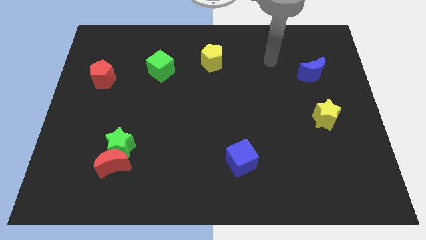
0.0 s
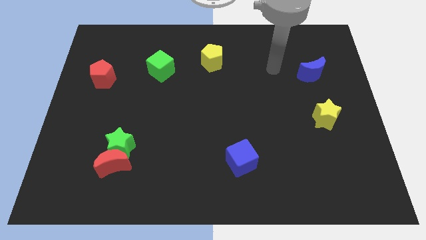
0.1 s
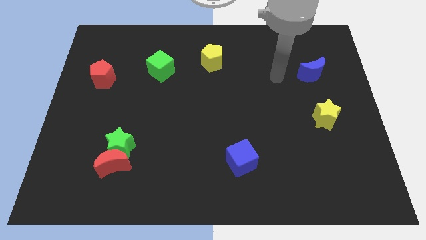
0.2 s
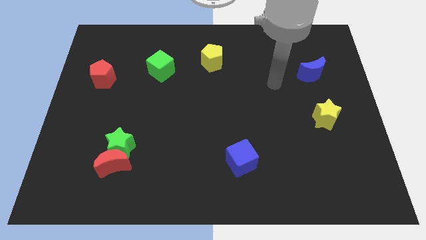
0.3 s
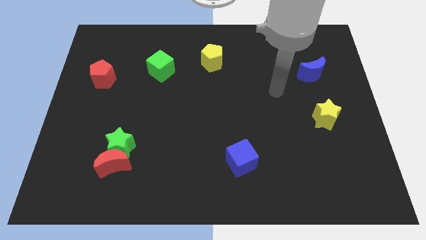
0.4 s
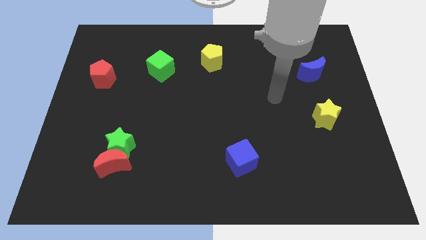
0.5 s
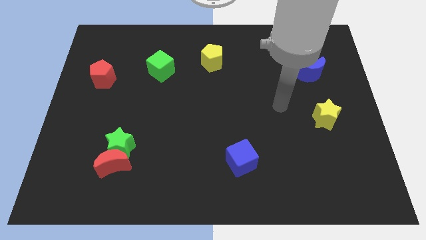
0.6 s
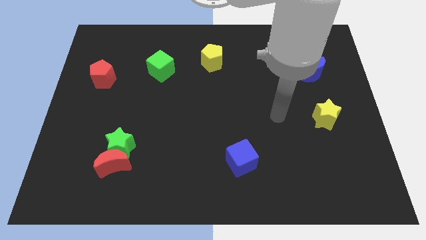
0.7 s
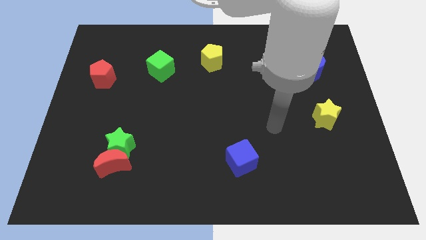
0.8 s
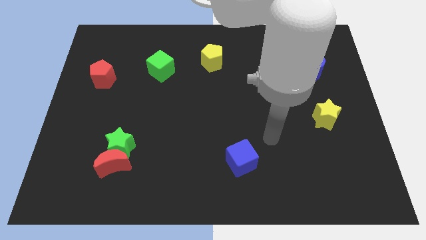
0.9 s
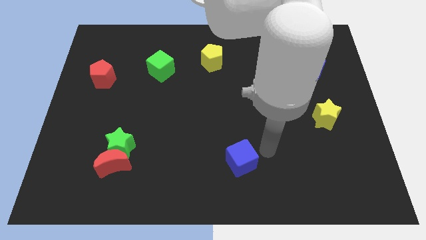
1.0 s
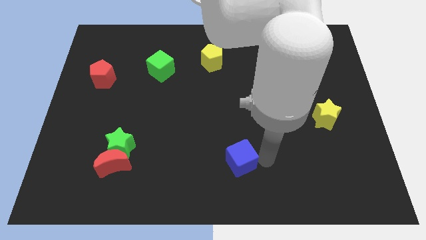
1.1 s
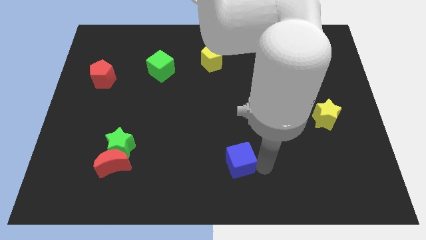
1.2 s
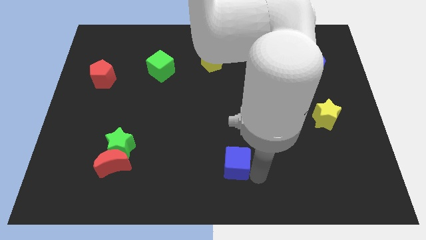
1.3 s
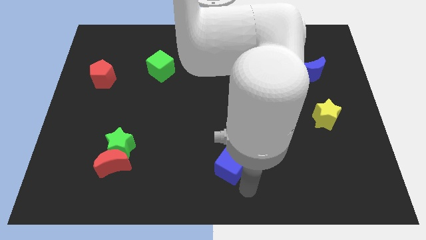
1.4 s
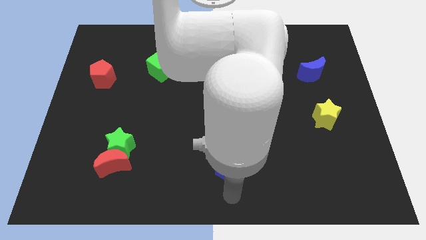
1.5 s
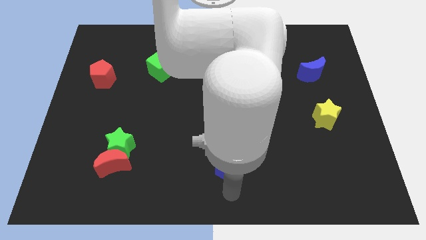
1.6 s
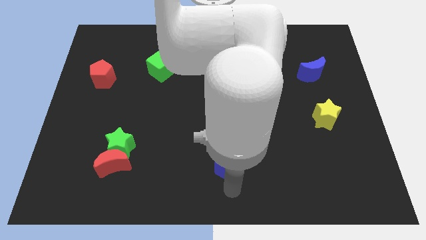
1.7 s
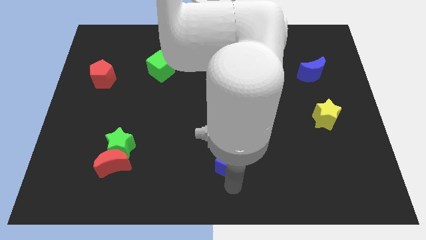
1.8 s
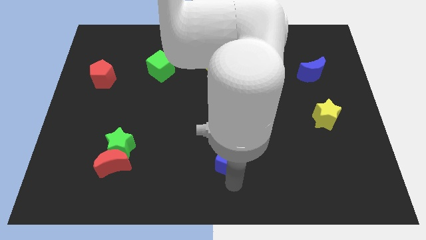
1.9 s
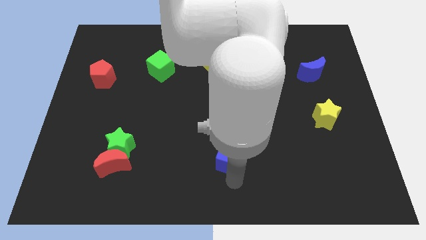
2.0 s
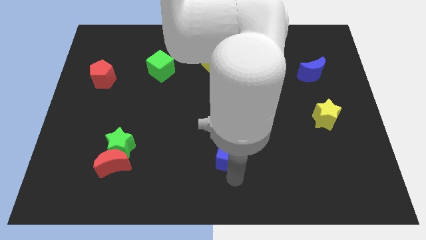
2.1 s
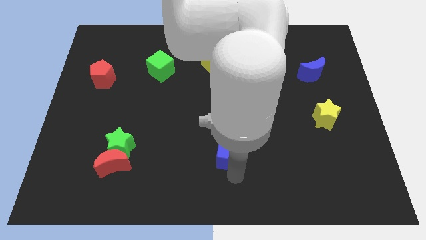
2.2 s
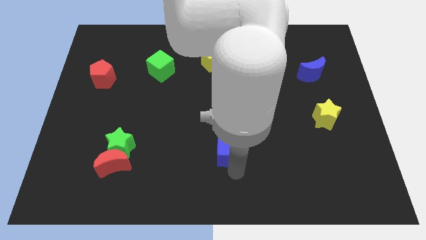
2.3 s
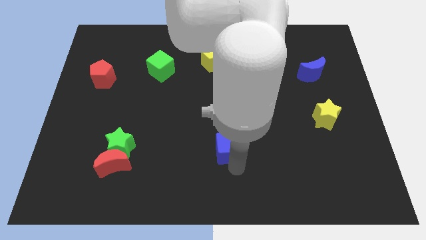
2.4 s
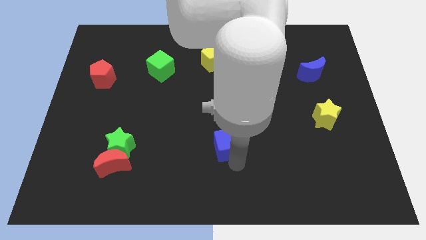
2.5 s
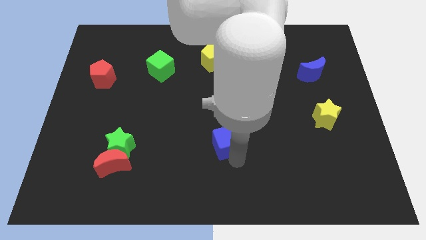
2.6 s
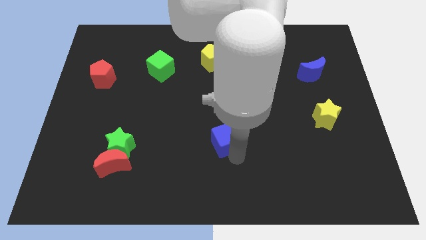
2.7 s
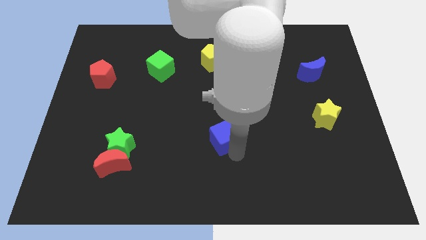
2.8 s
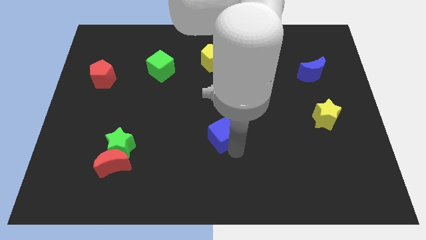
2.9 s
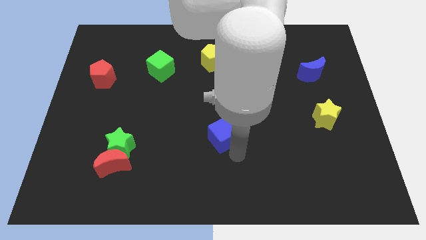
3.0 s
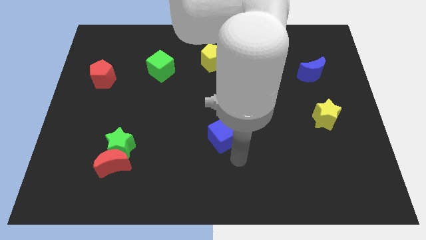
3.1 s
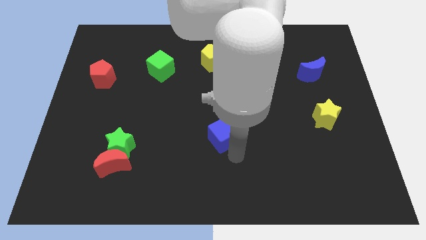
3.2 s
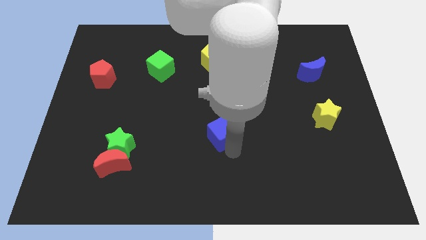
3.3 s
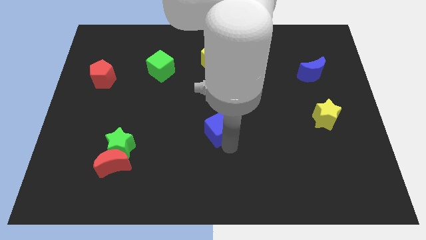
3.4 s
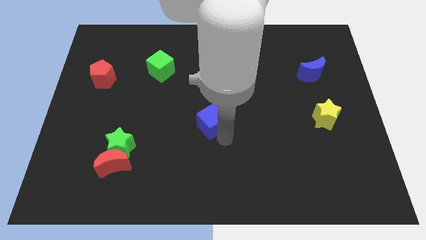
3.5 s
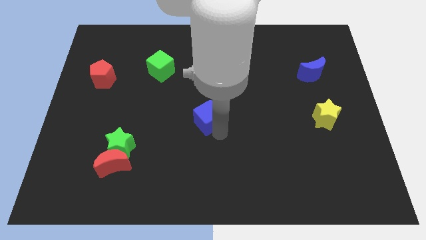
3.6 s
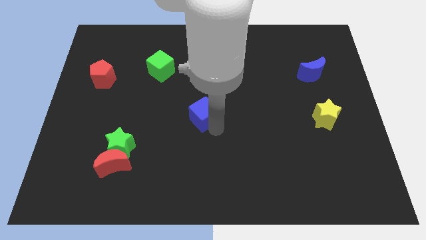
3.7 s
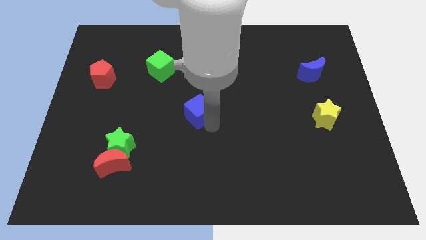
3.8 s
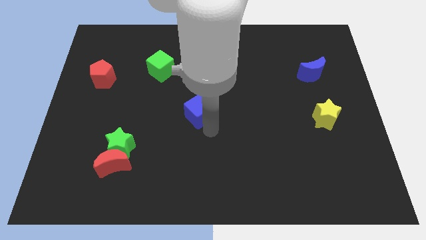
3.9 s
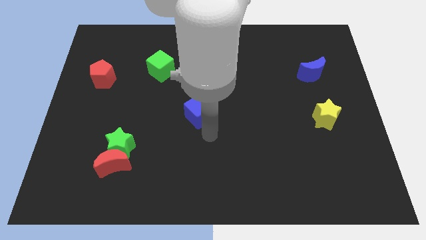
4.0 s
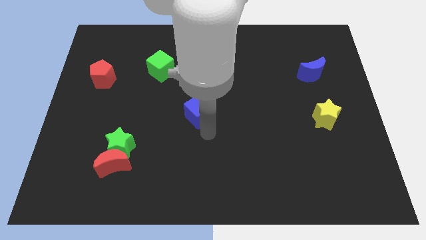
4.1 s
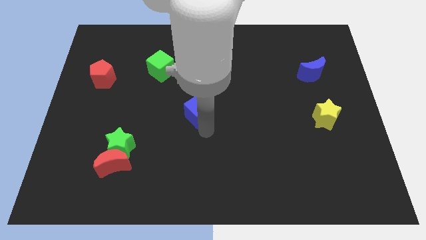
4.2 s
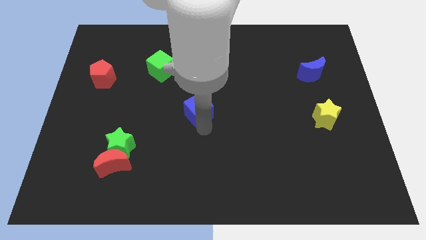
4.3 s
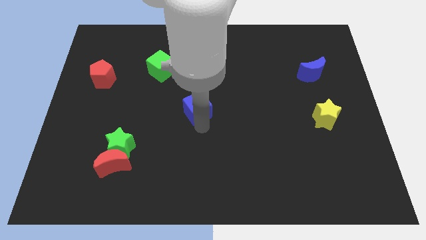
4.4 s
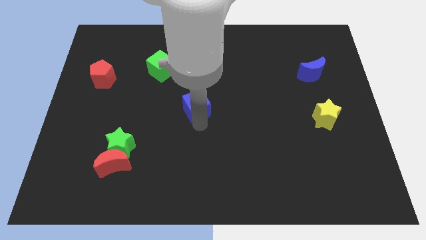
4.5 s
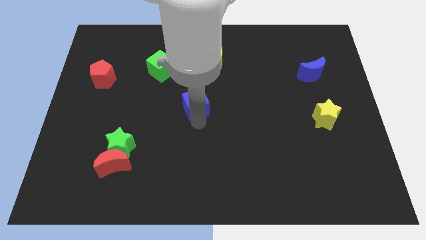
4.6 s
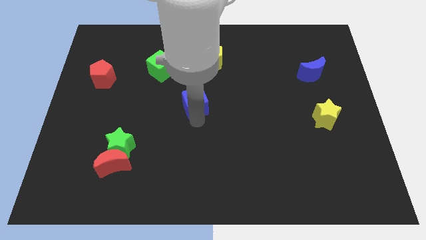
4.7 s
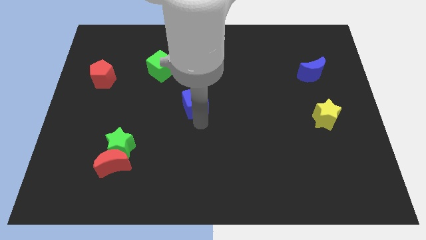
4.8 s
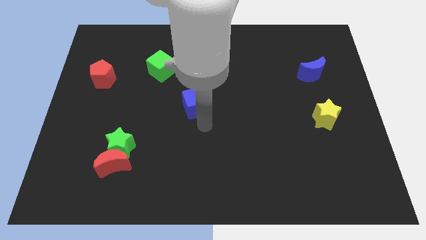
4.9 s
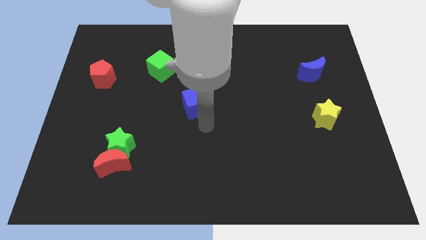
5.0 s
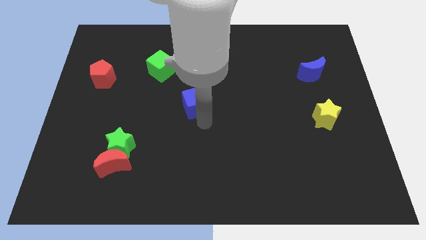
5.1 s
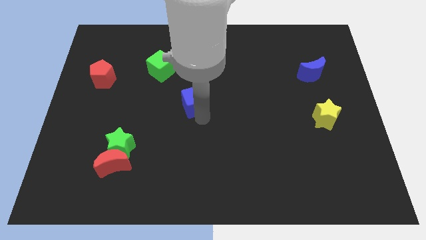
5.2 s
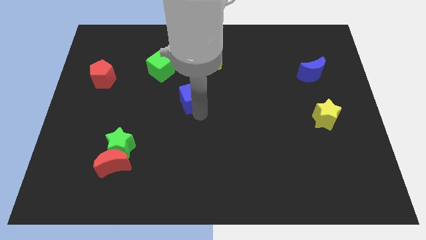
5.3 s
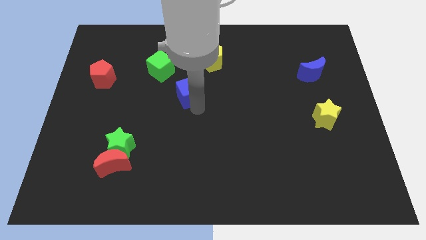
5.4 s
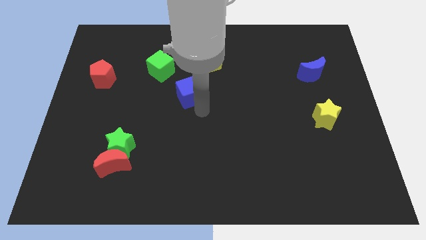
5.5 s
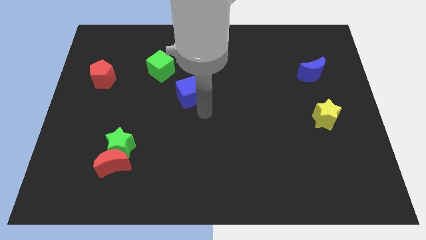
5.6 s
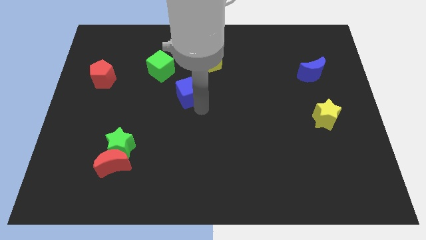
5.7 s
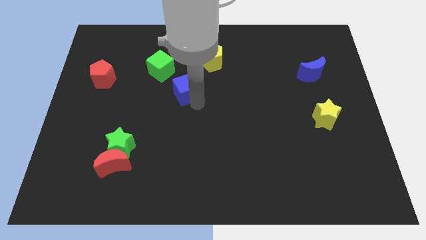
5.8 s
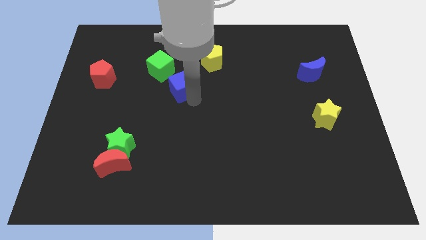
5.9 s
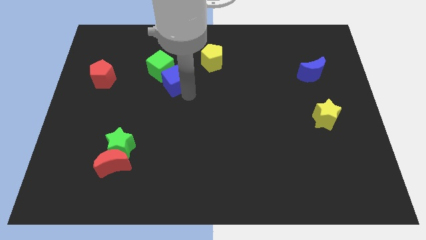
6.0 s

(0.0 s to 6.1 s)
push the blue cube close to the green cube

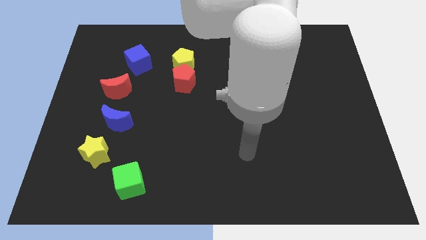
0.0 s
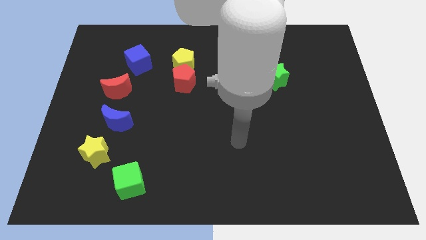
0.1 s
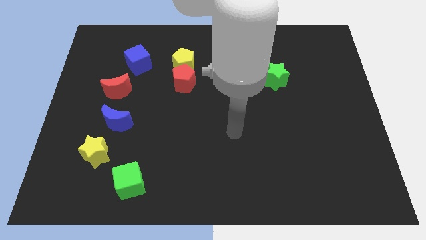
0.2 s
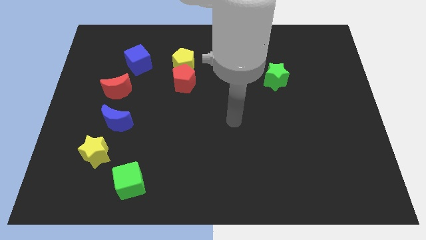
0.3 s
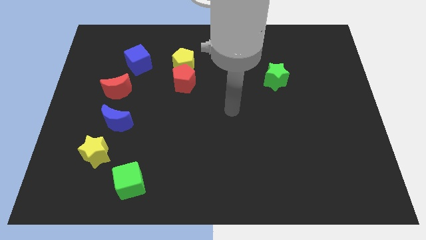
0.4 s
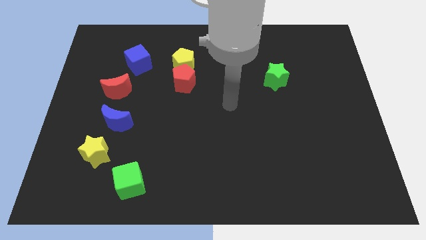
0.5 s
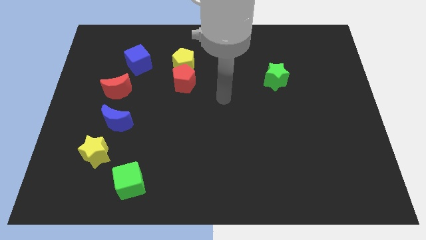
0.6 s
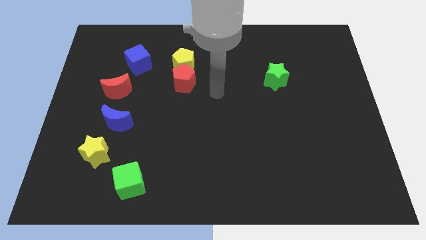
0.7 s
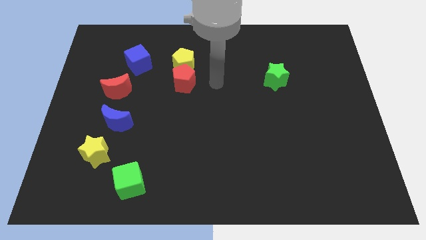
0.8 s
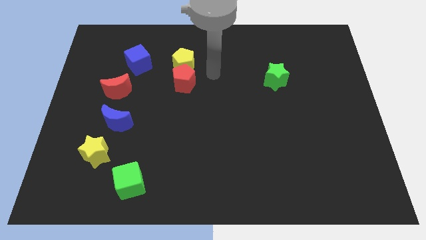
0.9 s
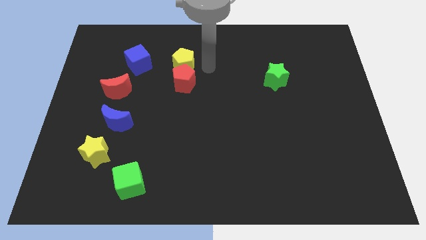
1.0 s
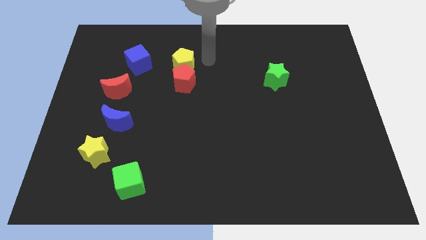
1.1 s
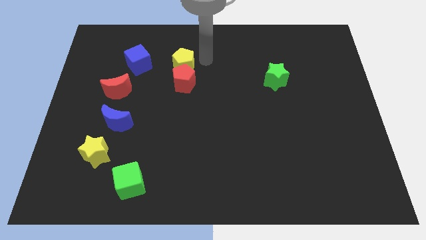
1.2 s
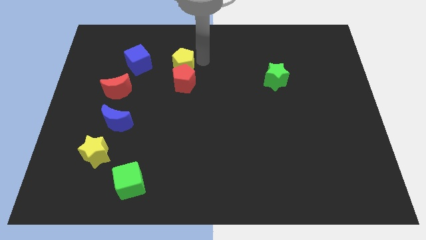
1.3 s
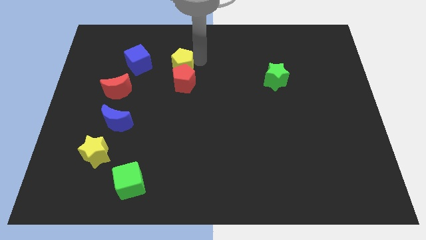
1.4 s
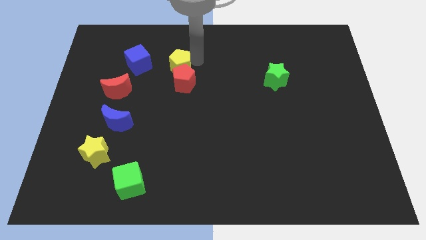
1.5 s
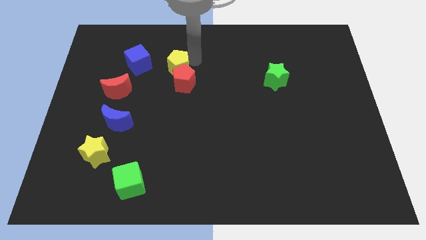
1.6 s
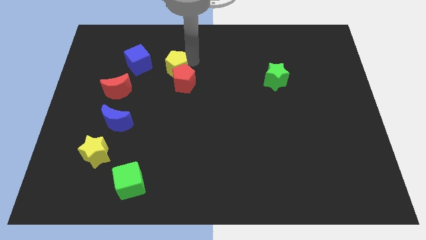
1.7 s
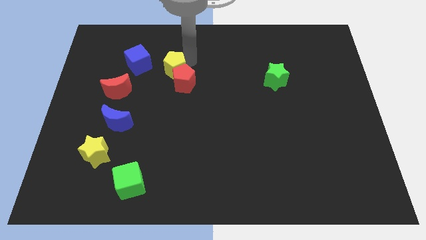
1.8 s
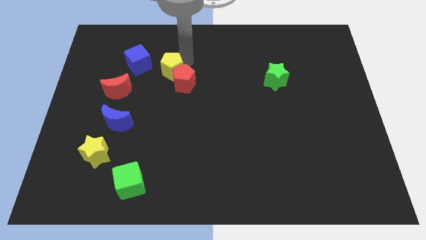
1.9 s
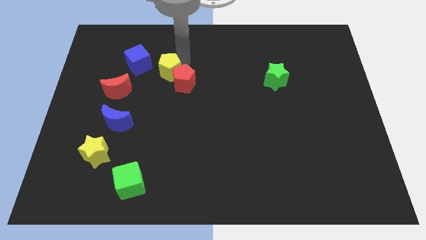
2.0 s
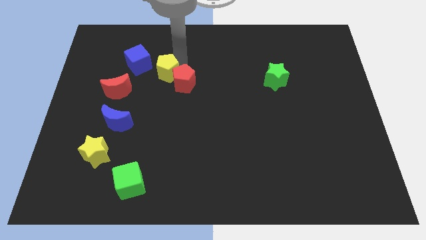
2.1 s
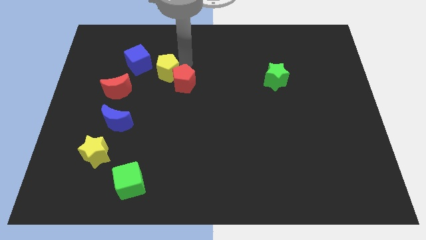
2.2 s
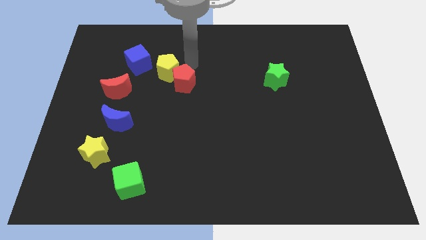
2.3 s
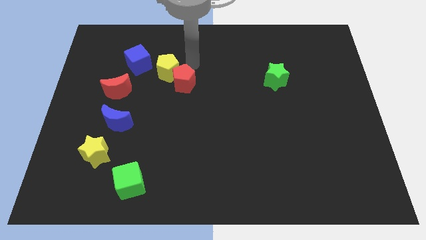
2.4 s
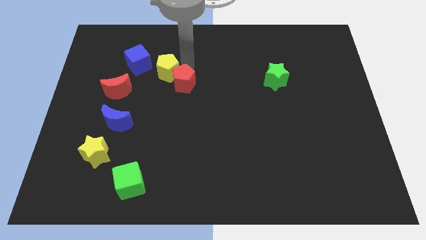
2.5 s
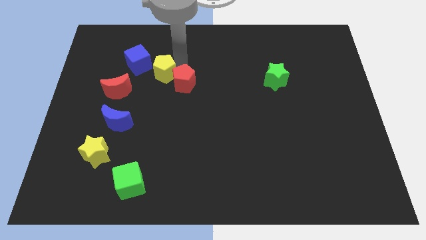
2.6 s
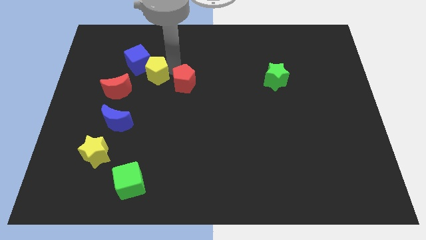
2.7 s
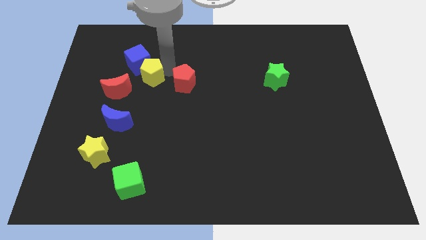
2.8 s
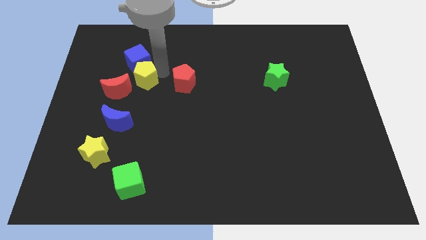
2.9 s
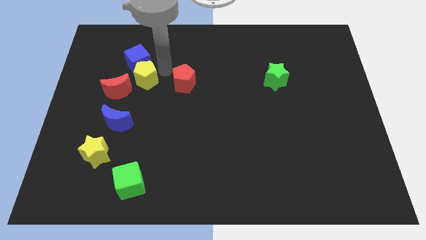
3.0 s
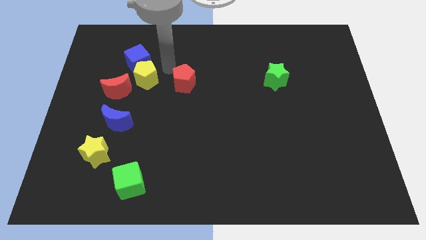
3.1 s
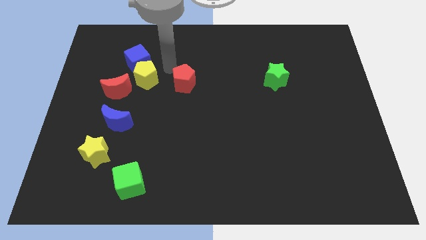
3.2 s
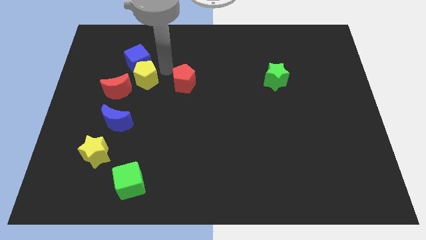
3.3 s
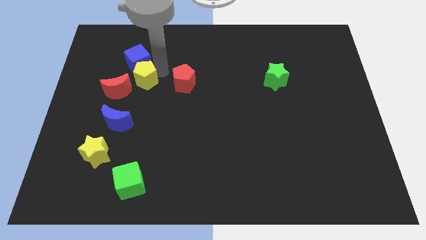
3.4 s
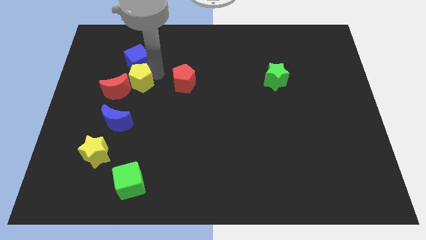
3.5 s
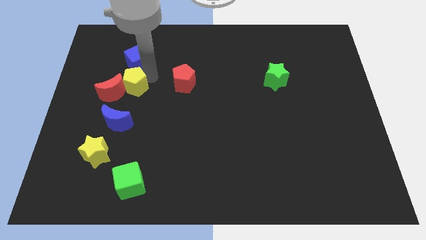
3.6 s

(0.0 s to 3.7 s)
put the yellow pentagon to the red moon
